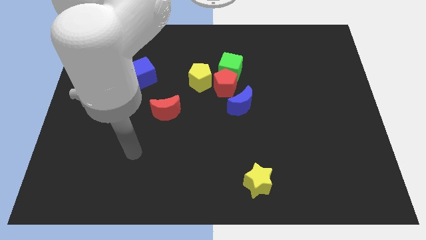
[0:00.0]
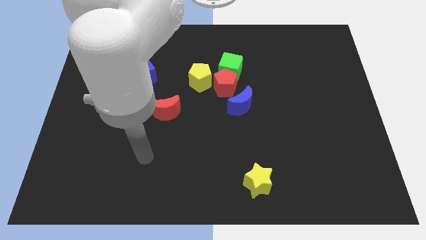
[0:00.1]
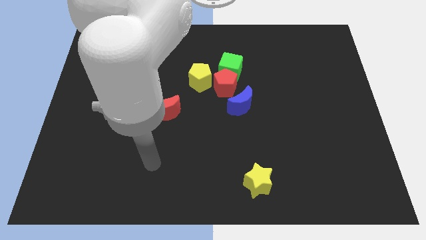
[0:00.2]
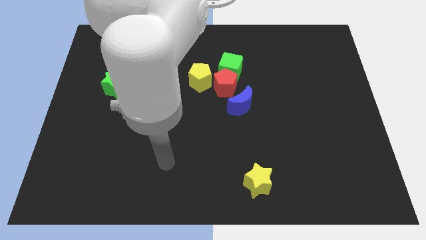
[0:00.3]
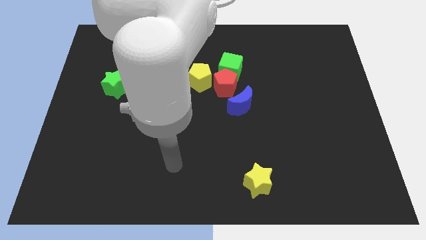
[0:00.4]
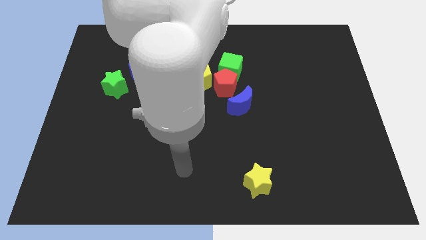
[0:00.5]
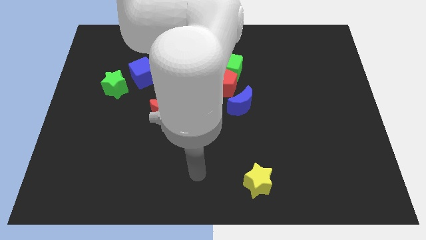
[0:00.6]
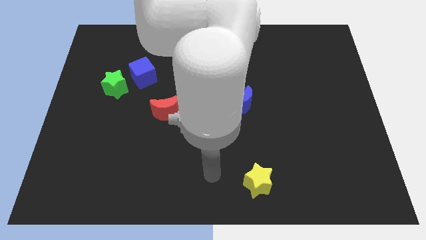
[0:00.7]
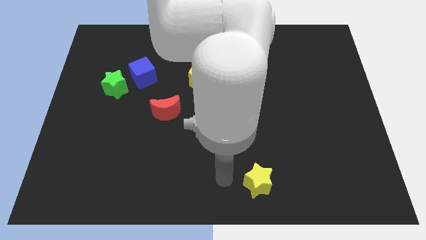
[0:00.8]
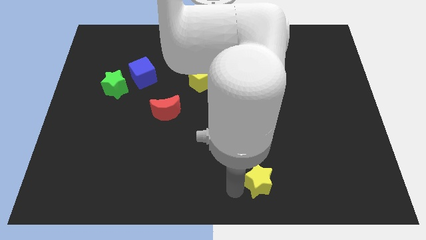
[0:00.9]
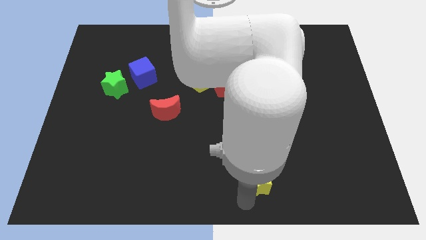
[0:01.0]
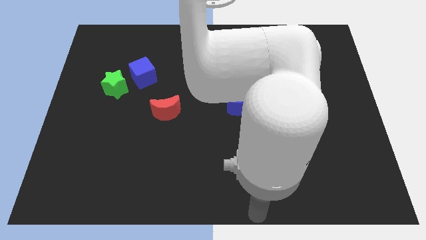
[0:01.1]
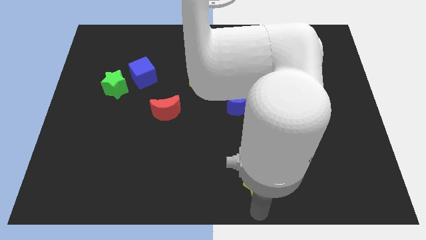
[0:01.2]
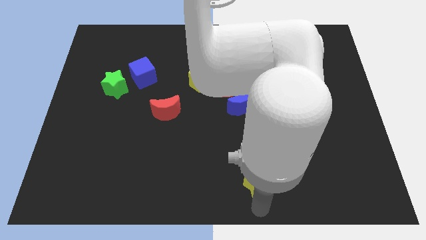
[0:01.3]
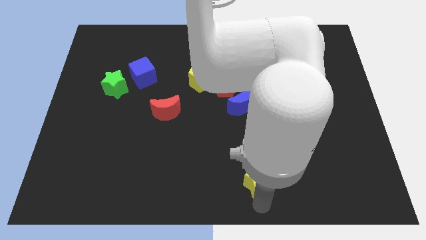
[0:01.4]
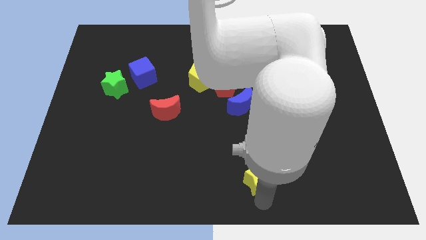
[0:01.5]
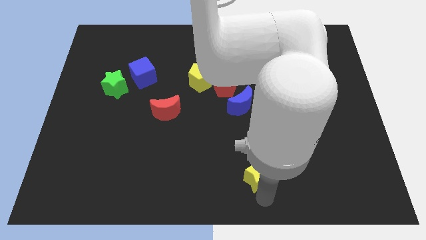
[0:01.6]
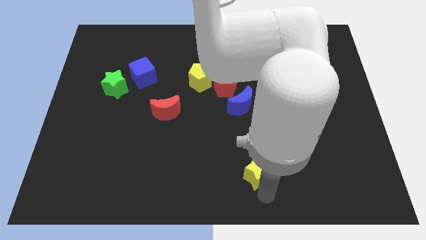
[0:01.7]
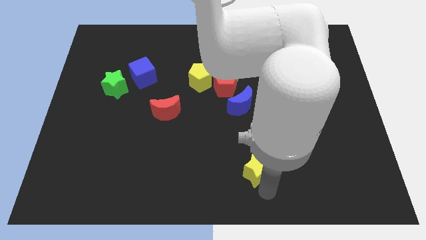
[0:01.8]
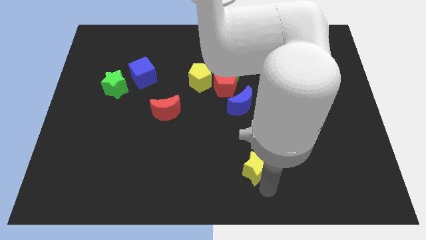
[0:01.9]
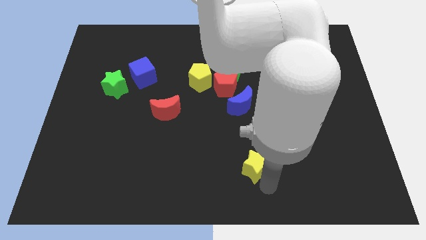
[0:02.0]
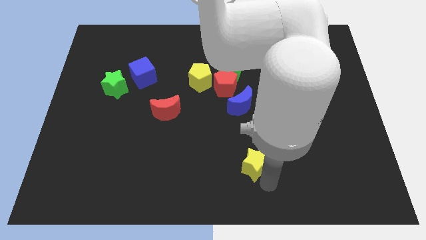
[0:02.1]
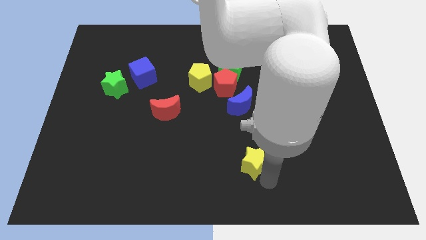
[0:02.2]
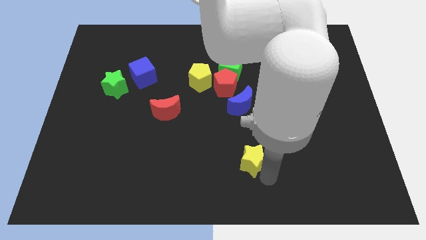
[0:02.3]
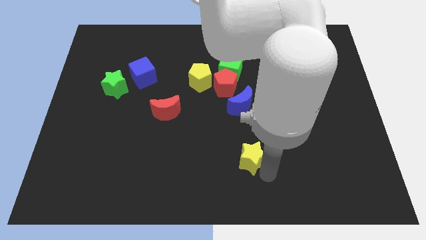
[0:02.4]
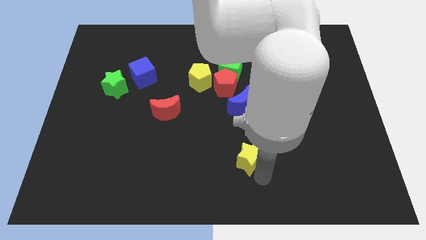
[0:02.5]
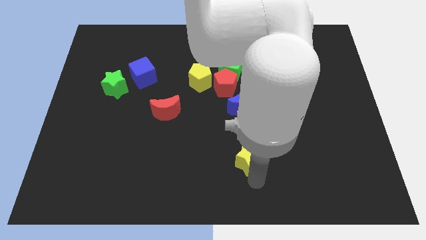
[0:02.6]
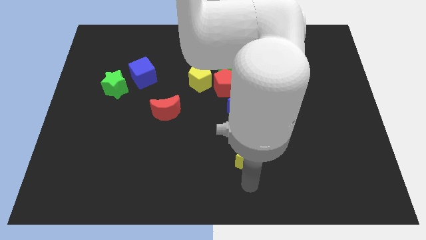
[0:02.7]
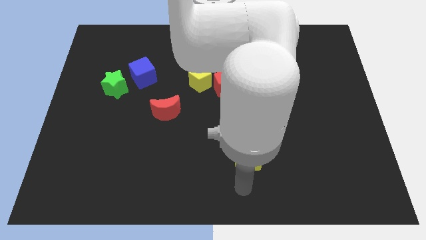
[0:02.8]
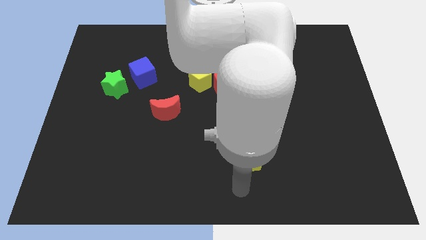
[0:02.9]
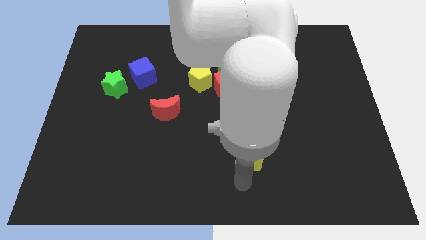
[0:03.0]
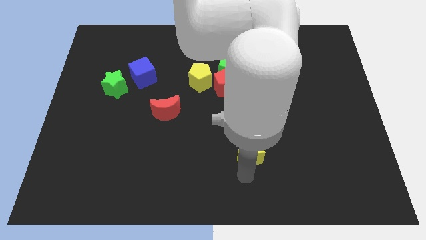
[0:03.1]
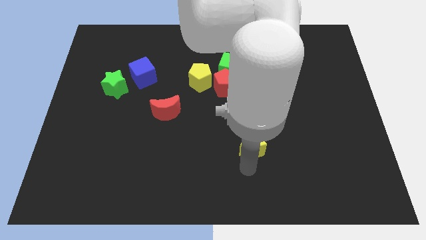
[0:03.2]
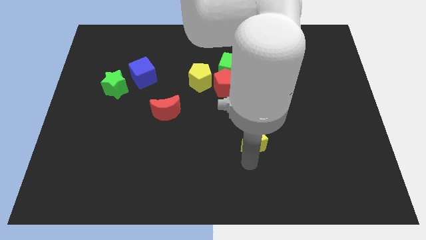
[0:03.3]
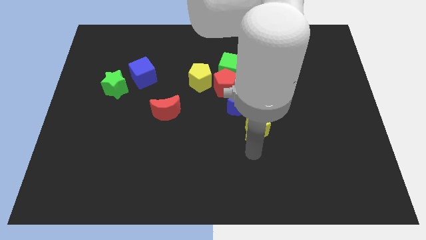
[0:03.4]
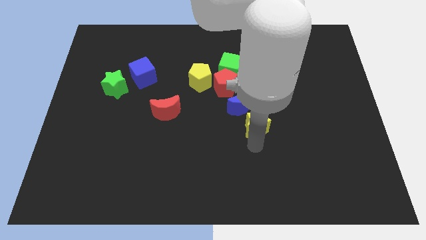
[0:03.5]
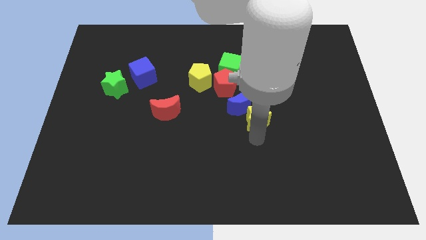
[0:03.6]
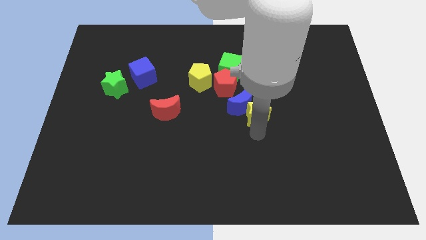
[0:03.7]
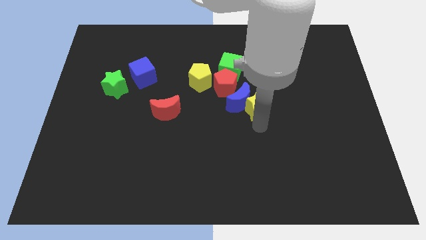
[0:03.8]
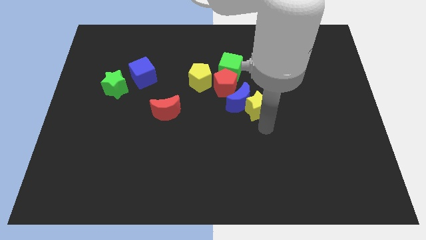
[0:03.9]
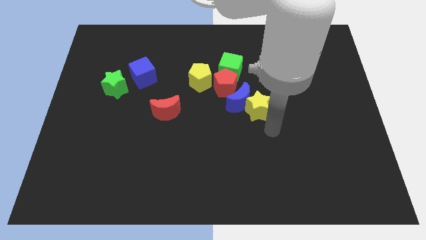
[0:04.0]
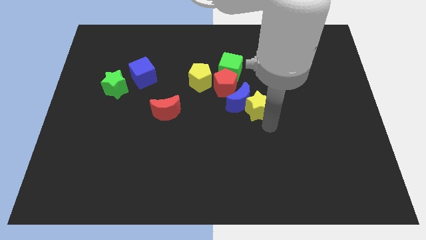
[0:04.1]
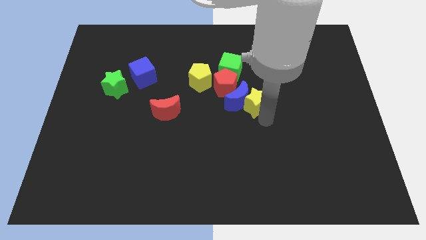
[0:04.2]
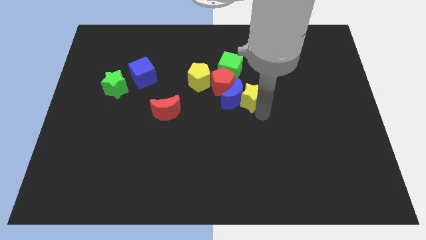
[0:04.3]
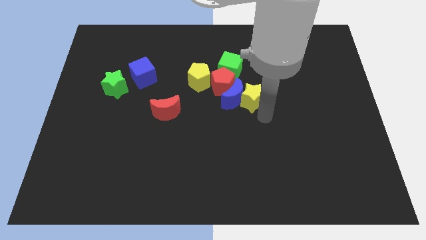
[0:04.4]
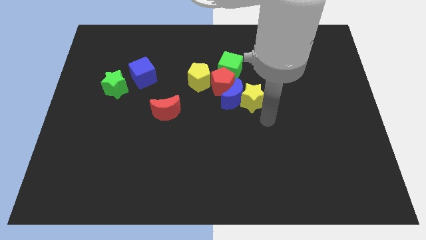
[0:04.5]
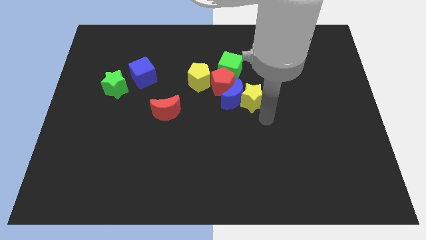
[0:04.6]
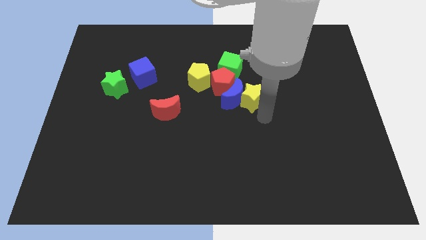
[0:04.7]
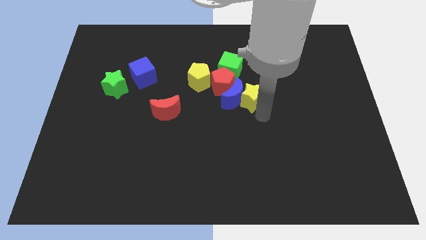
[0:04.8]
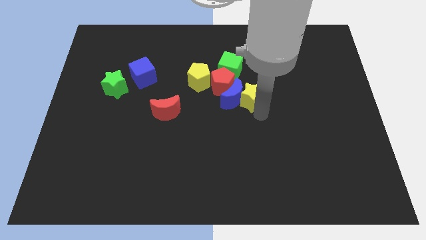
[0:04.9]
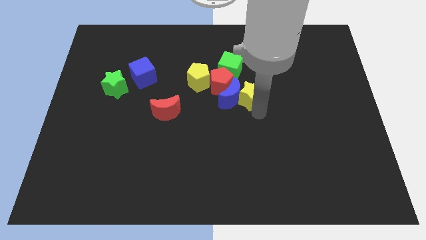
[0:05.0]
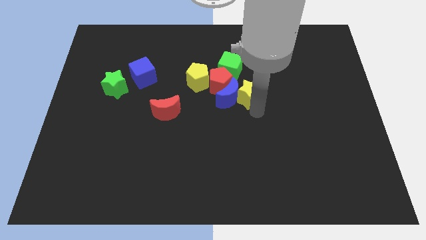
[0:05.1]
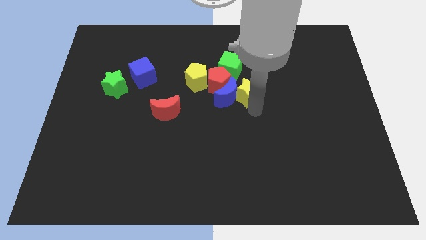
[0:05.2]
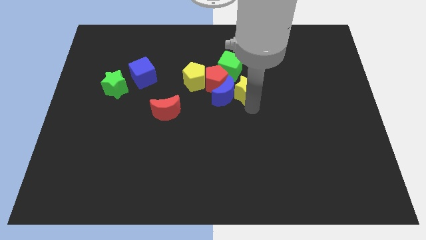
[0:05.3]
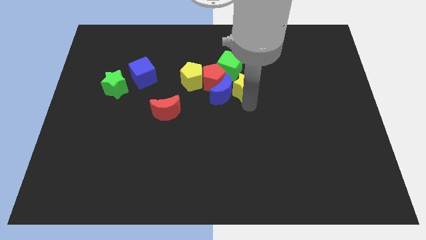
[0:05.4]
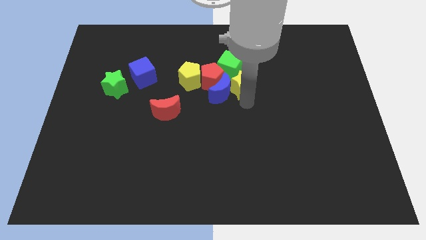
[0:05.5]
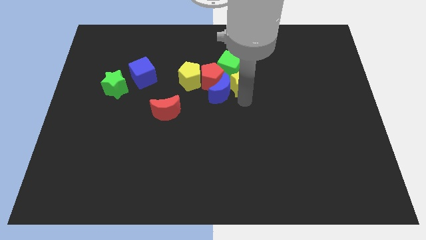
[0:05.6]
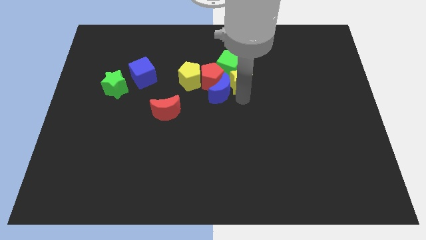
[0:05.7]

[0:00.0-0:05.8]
put the yellow star close to the green cube

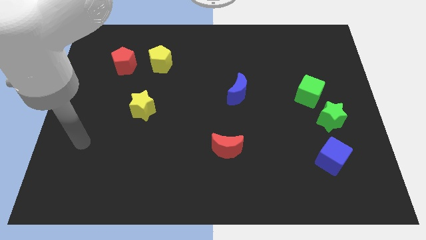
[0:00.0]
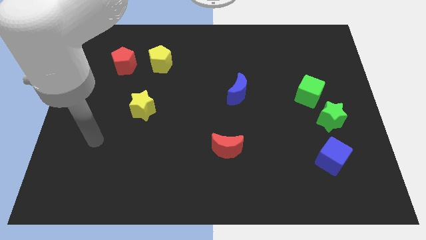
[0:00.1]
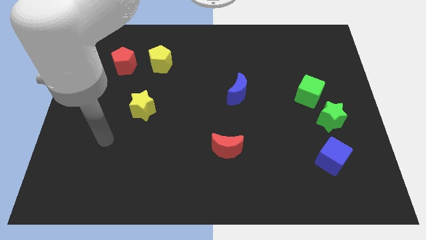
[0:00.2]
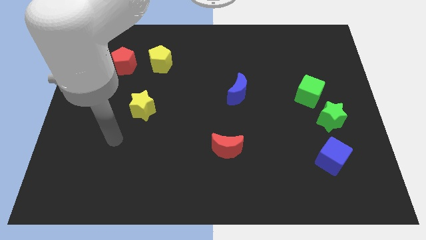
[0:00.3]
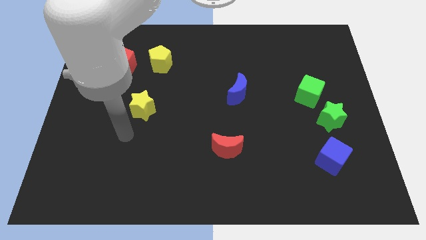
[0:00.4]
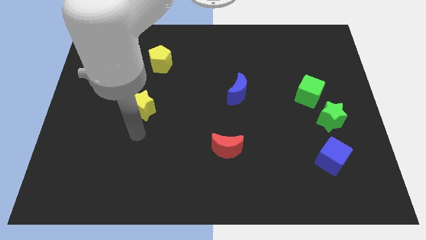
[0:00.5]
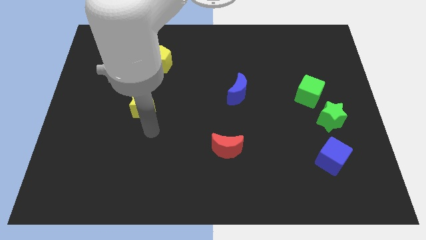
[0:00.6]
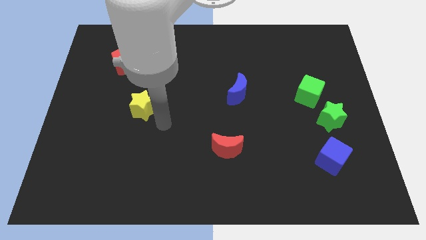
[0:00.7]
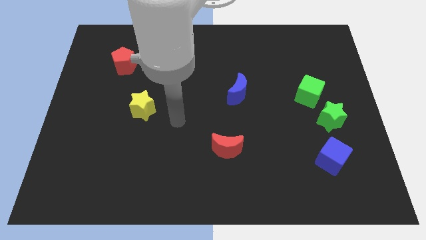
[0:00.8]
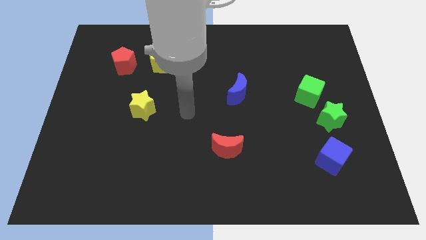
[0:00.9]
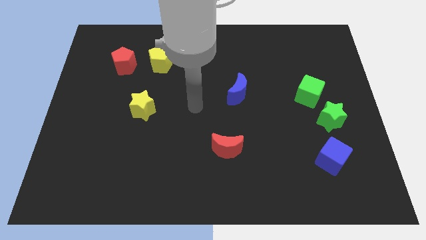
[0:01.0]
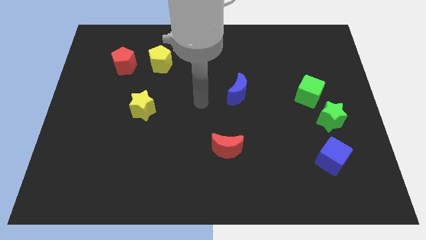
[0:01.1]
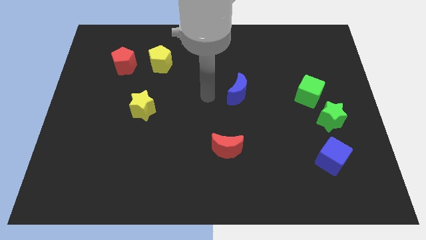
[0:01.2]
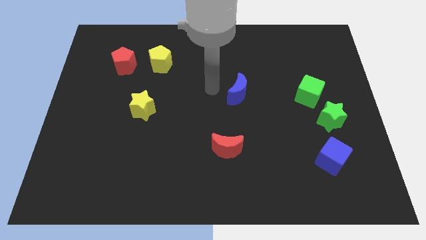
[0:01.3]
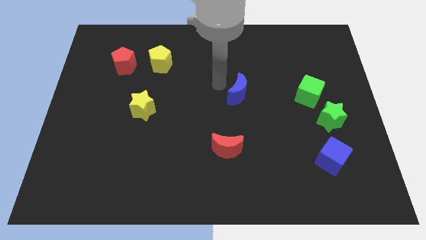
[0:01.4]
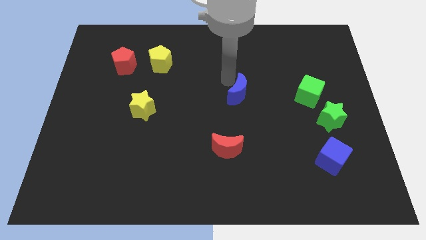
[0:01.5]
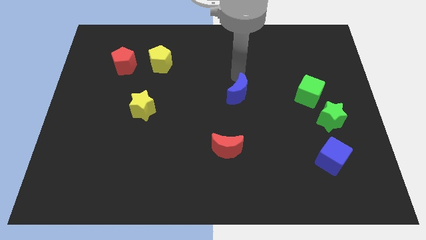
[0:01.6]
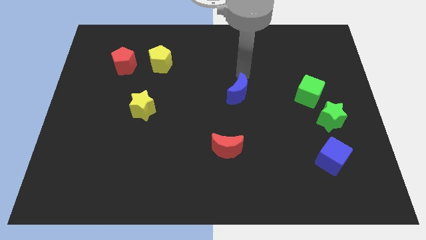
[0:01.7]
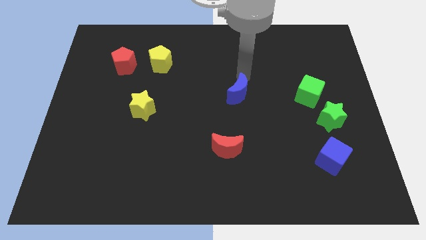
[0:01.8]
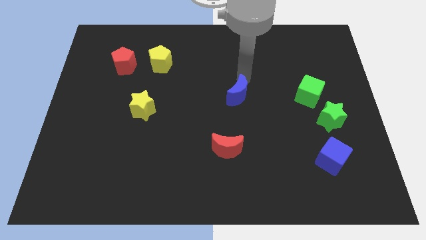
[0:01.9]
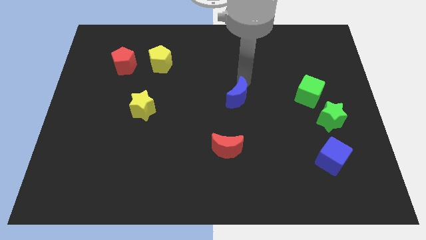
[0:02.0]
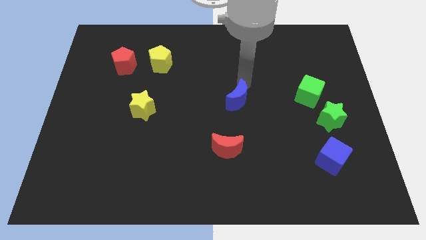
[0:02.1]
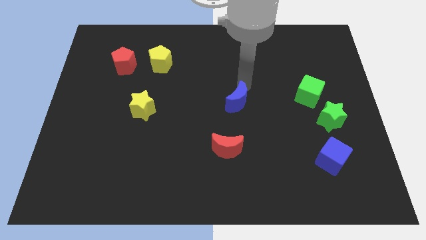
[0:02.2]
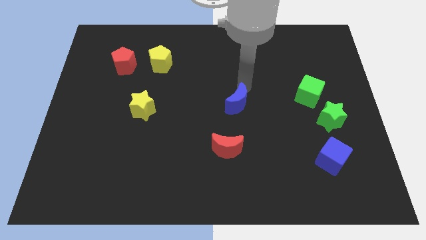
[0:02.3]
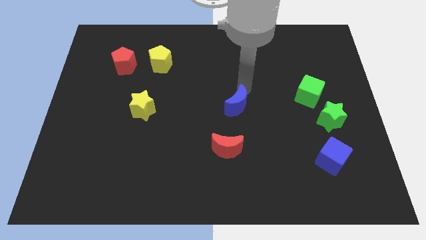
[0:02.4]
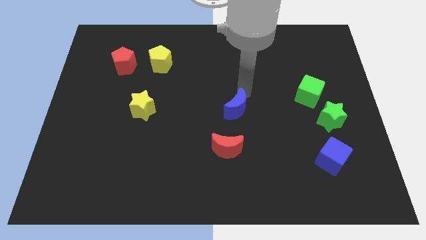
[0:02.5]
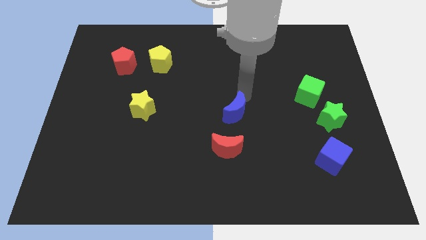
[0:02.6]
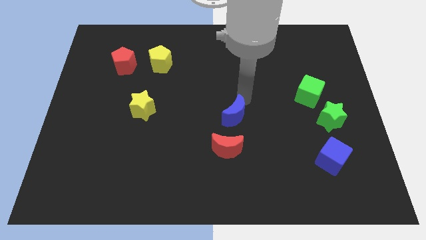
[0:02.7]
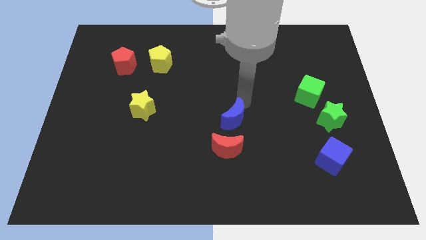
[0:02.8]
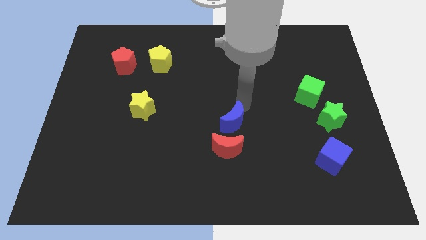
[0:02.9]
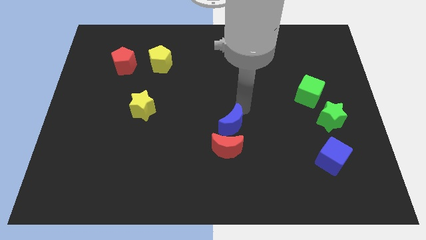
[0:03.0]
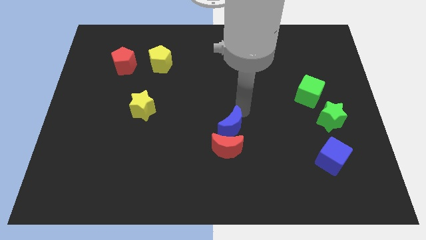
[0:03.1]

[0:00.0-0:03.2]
slide the blue moon to the red moon
